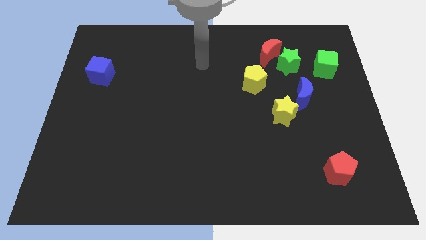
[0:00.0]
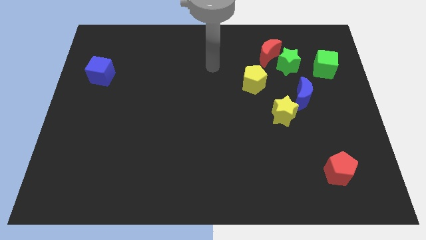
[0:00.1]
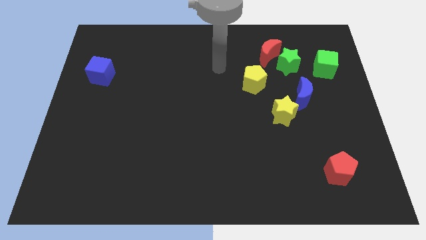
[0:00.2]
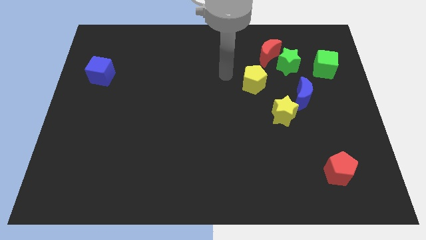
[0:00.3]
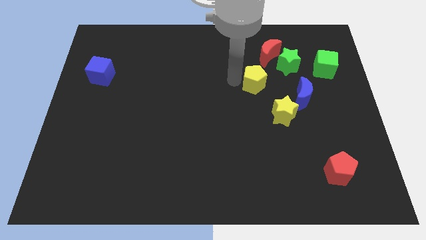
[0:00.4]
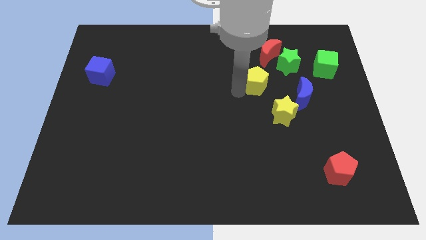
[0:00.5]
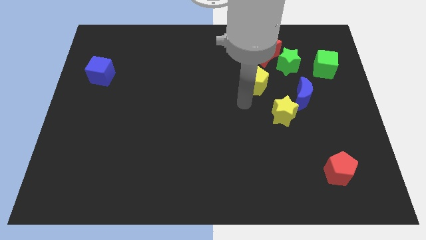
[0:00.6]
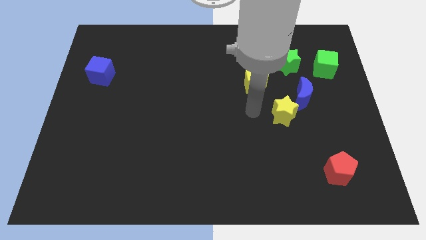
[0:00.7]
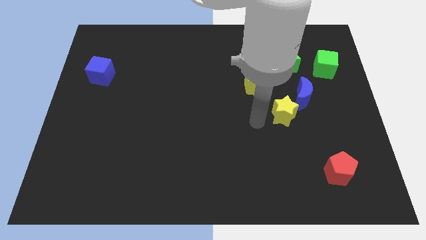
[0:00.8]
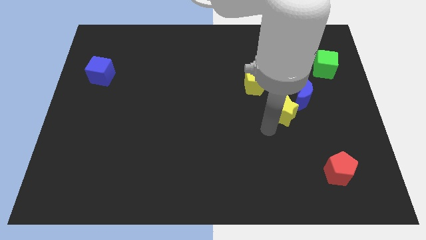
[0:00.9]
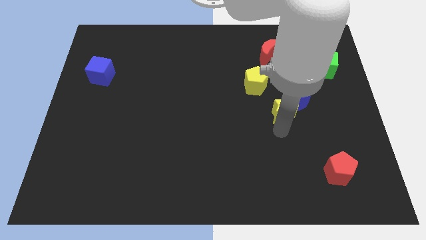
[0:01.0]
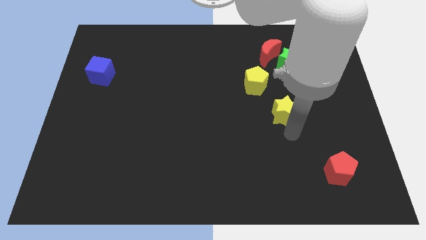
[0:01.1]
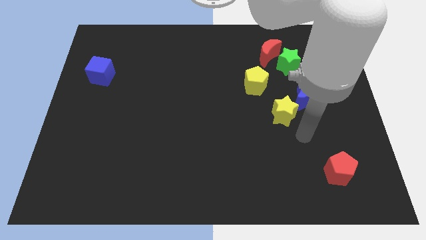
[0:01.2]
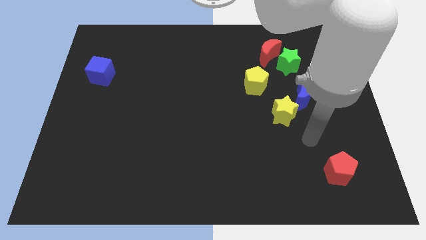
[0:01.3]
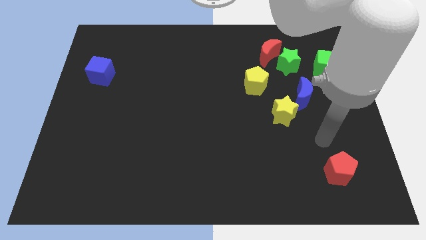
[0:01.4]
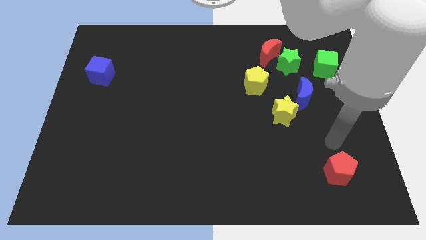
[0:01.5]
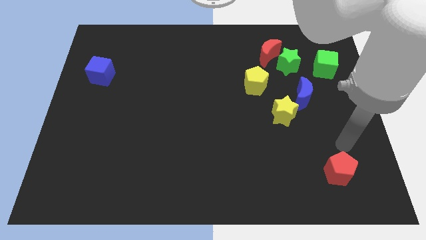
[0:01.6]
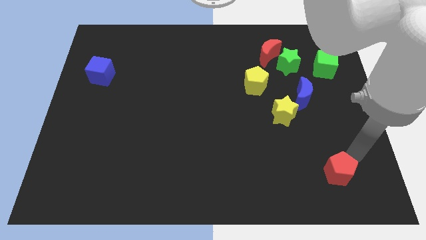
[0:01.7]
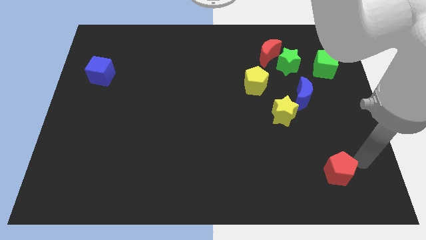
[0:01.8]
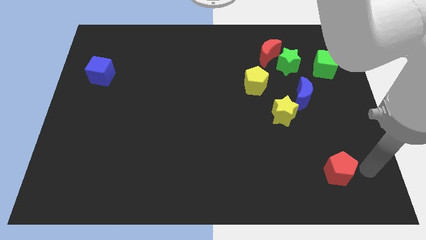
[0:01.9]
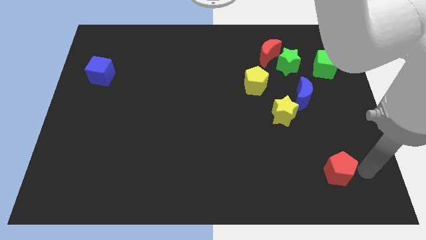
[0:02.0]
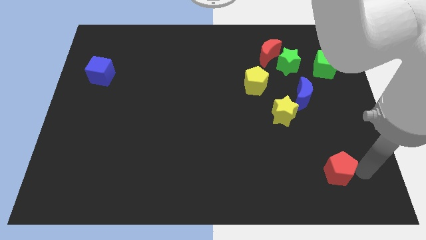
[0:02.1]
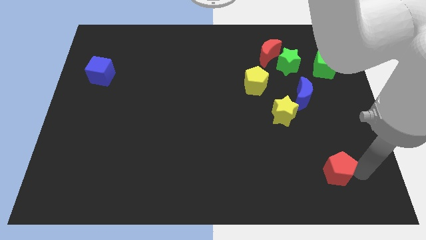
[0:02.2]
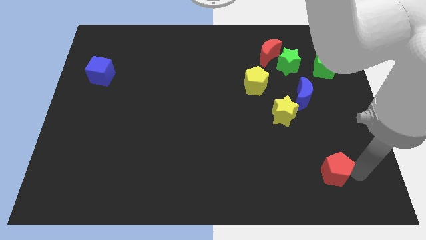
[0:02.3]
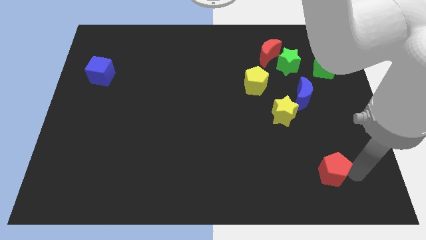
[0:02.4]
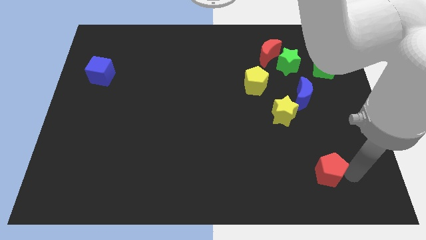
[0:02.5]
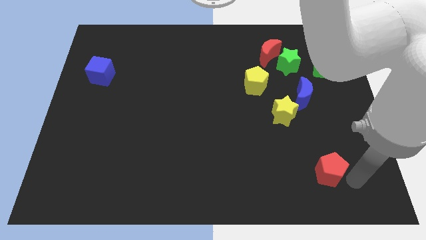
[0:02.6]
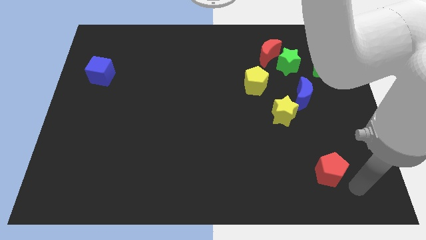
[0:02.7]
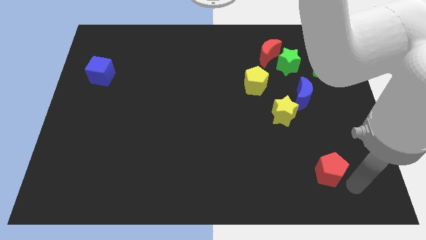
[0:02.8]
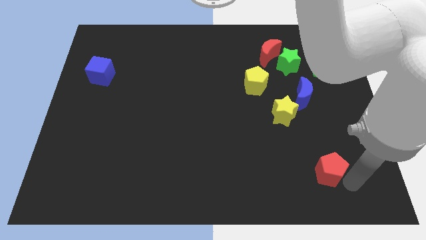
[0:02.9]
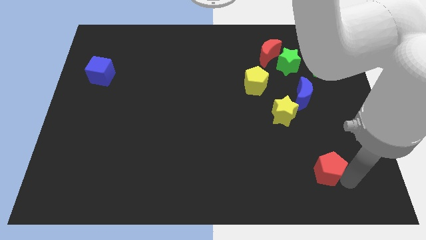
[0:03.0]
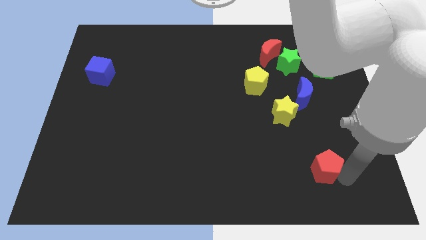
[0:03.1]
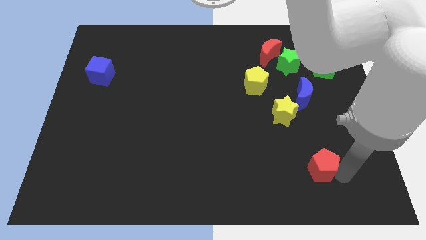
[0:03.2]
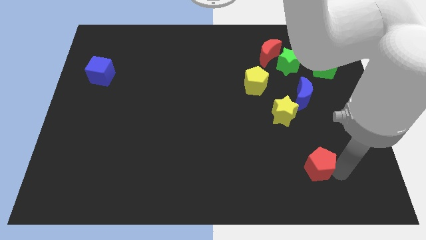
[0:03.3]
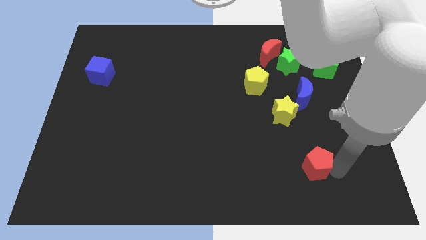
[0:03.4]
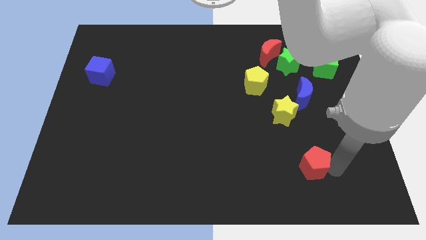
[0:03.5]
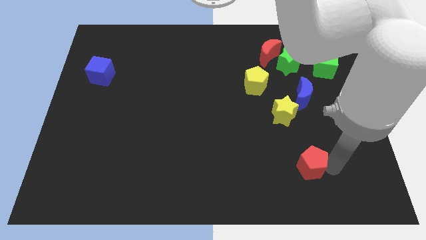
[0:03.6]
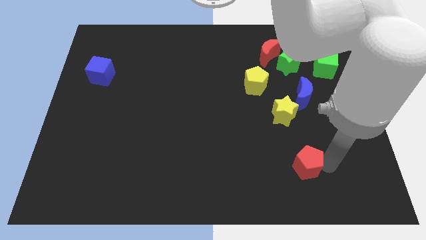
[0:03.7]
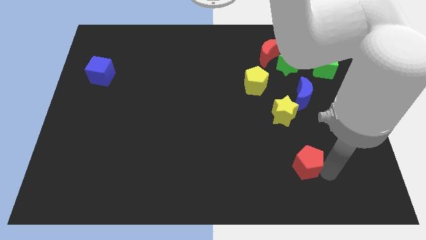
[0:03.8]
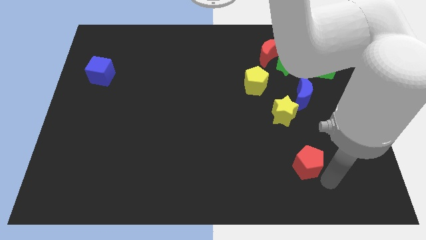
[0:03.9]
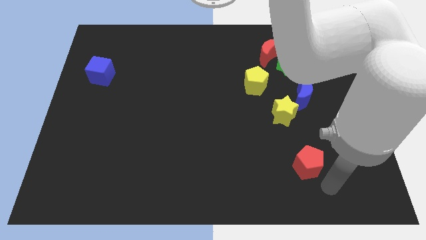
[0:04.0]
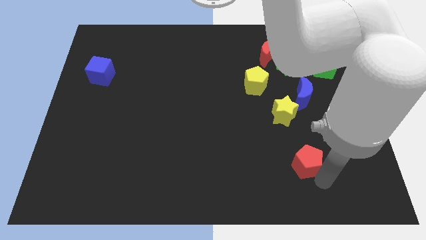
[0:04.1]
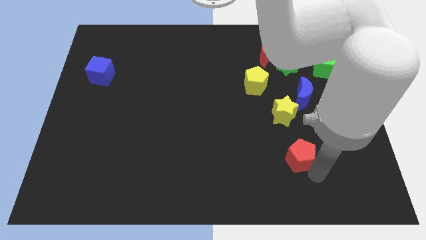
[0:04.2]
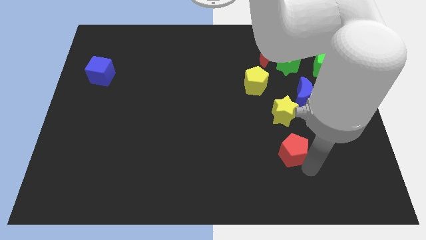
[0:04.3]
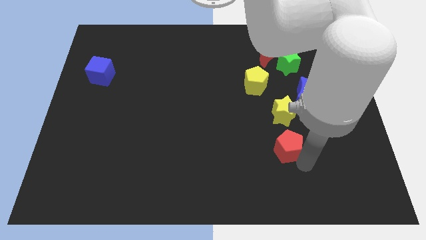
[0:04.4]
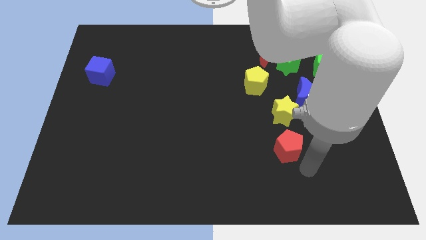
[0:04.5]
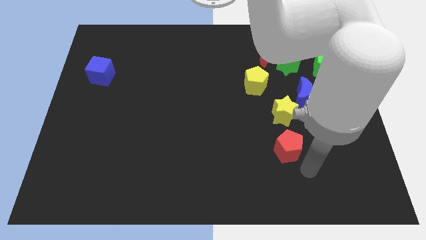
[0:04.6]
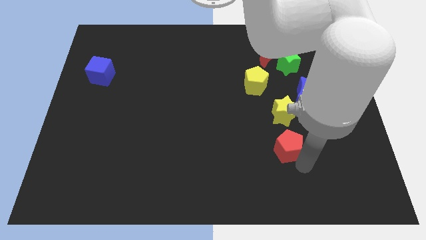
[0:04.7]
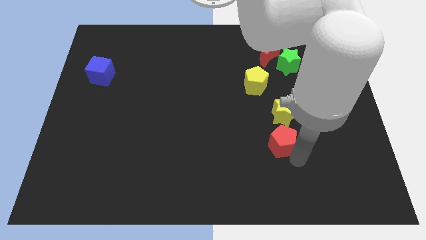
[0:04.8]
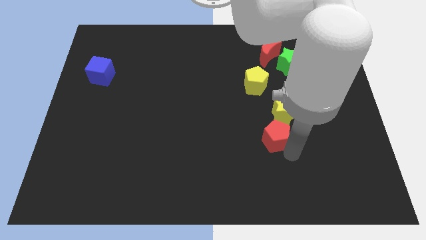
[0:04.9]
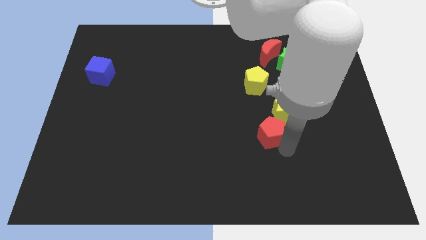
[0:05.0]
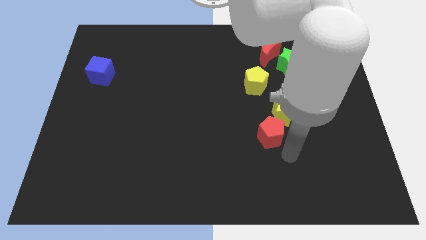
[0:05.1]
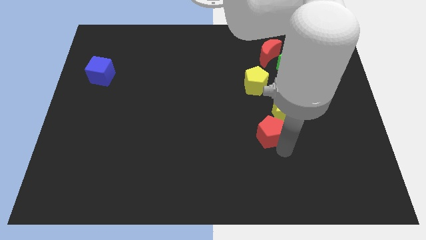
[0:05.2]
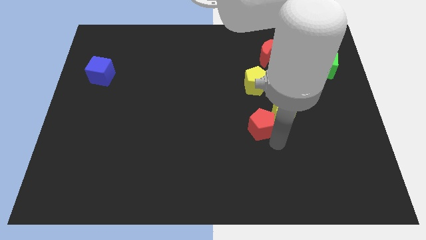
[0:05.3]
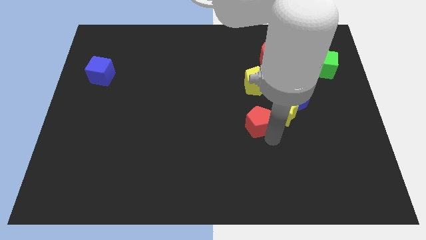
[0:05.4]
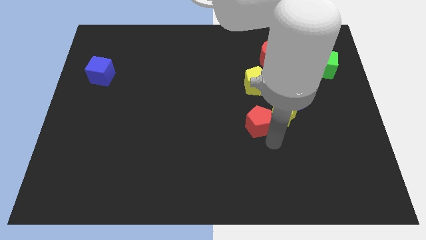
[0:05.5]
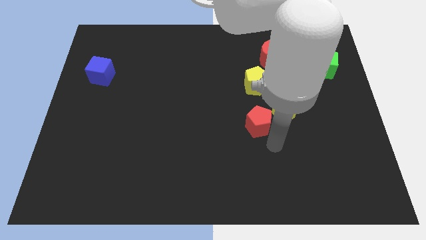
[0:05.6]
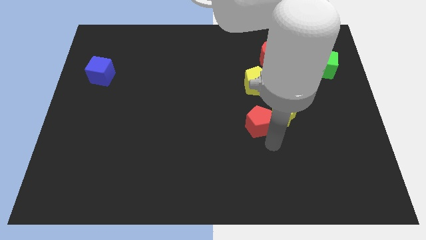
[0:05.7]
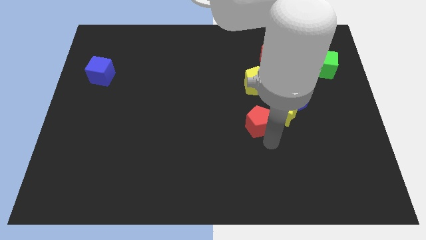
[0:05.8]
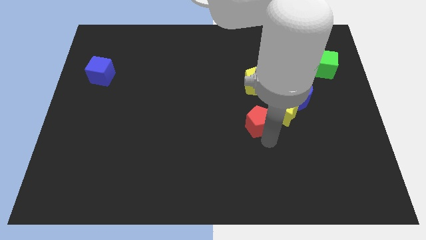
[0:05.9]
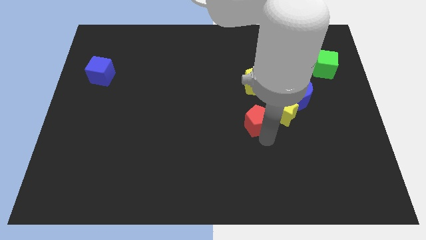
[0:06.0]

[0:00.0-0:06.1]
push the red pentagon upwards and left

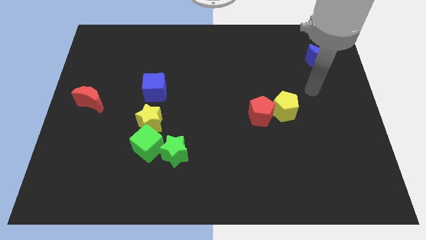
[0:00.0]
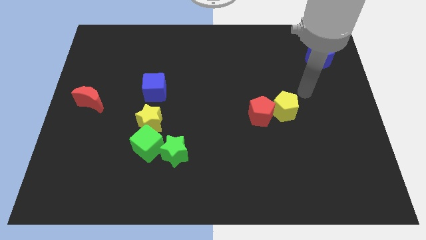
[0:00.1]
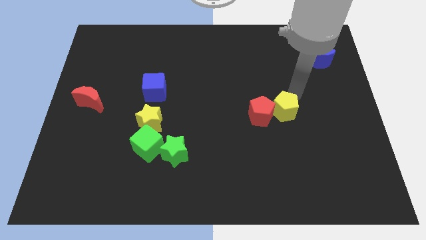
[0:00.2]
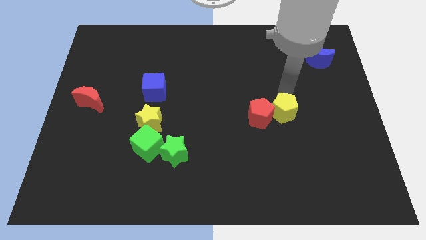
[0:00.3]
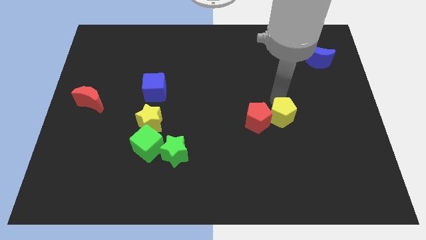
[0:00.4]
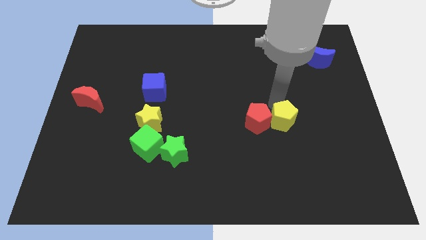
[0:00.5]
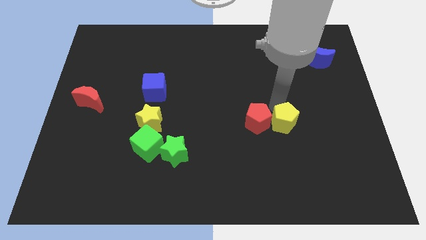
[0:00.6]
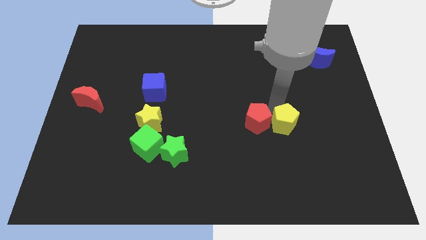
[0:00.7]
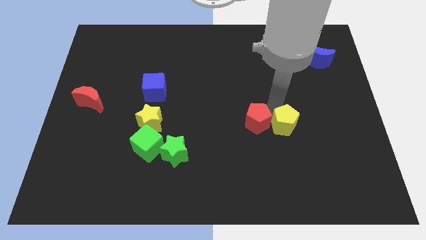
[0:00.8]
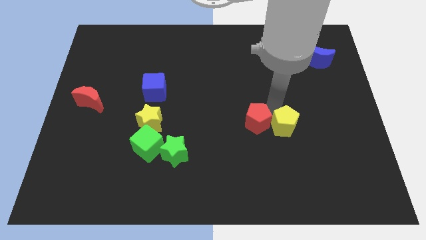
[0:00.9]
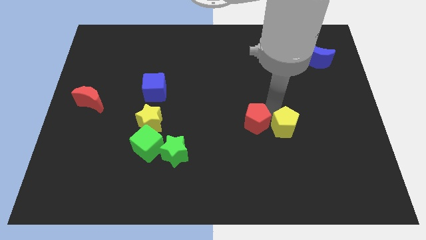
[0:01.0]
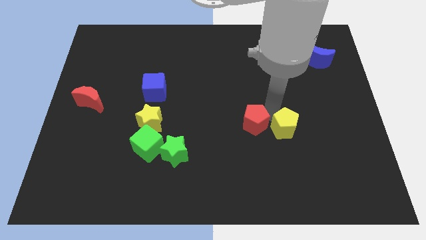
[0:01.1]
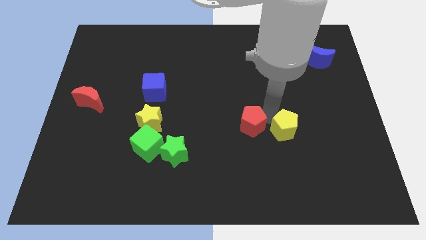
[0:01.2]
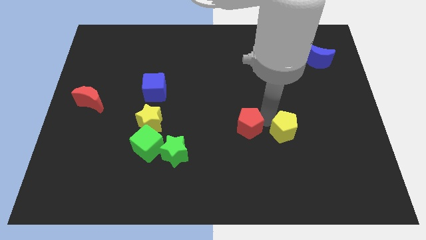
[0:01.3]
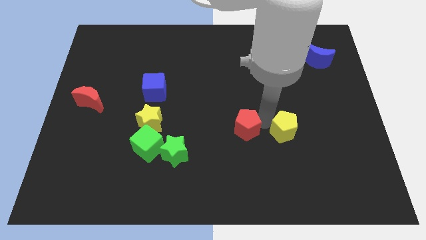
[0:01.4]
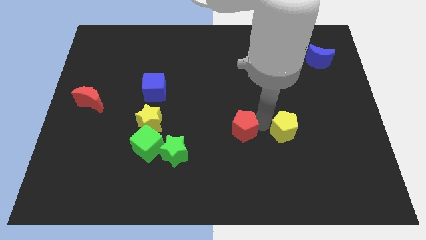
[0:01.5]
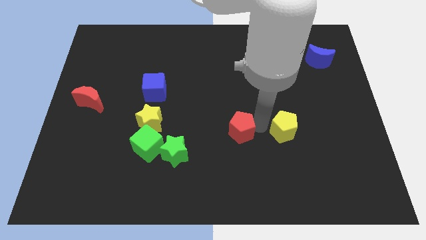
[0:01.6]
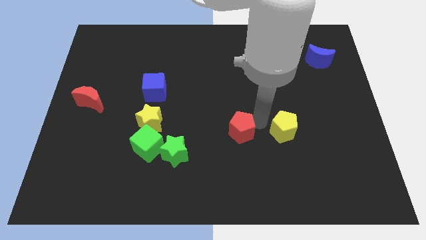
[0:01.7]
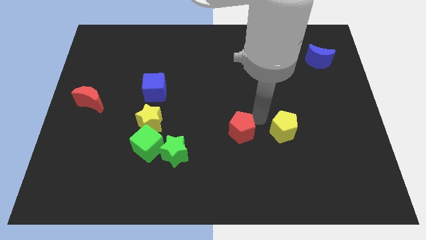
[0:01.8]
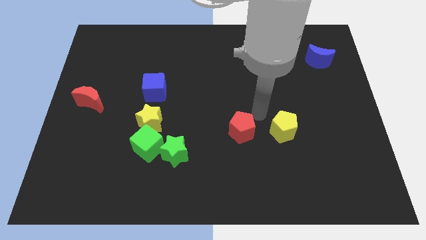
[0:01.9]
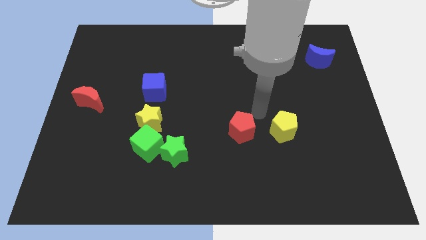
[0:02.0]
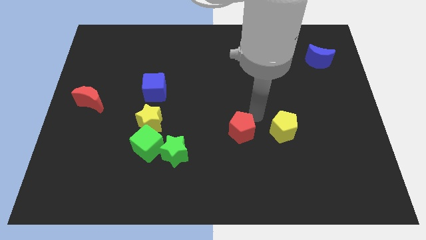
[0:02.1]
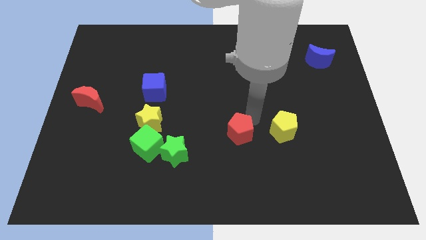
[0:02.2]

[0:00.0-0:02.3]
slightly move the red pentagon diagonally downwards and to the left
